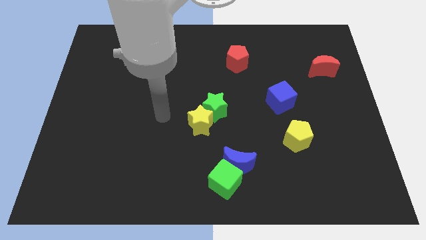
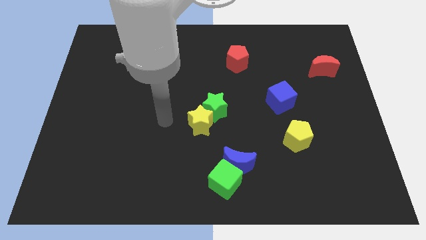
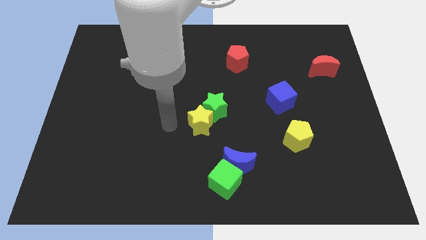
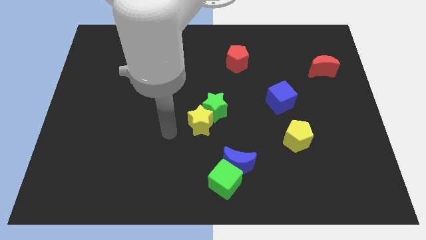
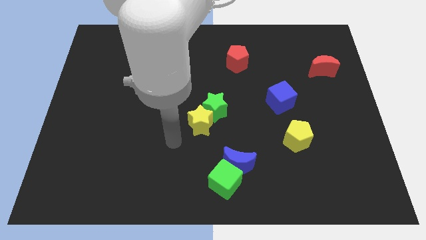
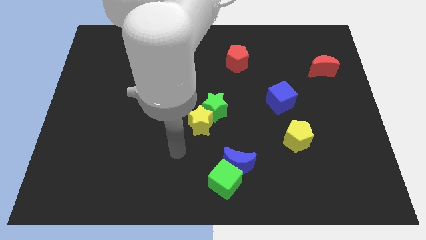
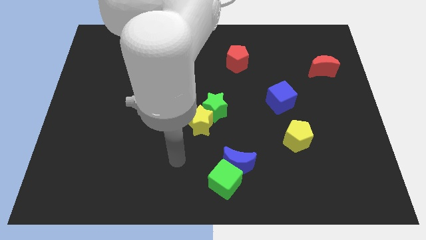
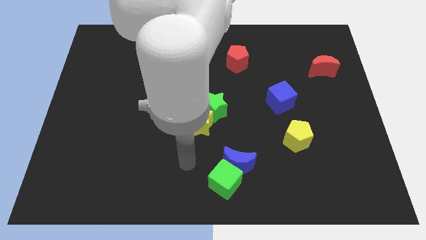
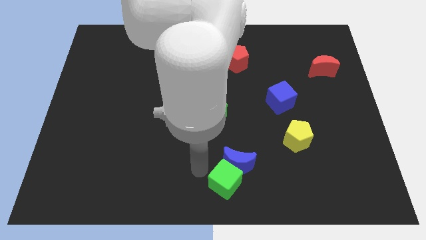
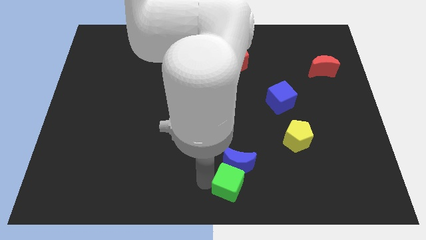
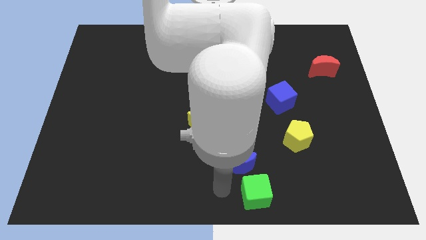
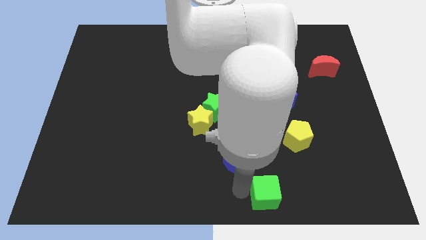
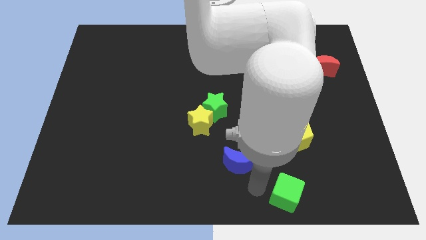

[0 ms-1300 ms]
pull the blue moon apart from the green cube
